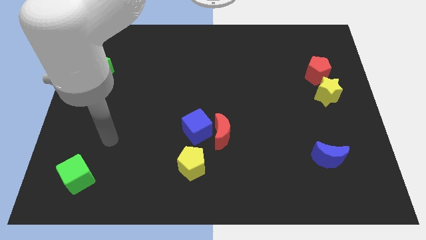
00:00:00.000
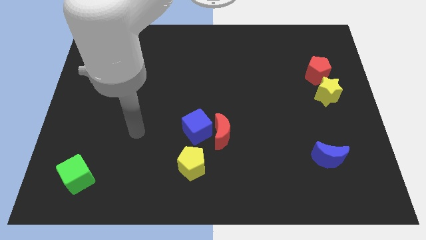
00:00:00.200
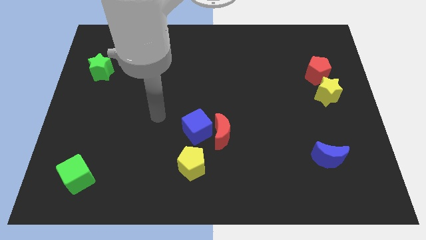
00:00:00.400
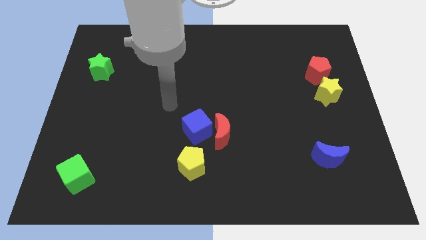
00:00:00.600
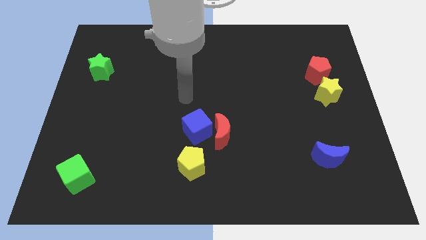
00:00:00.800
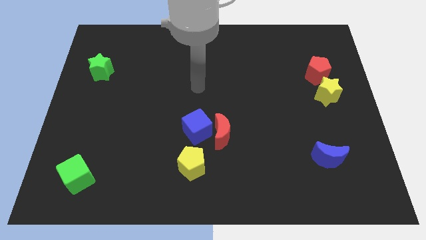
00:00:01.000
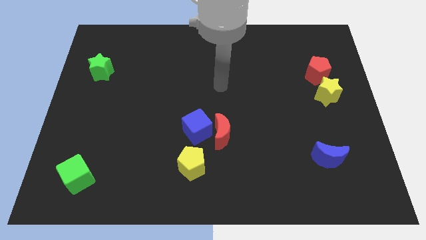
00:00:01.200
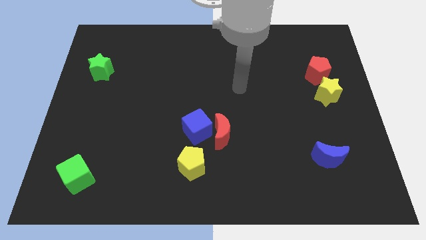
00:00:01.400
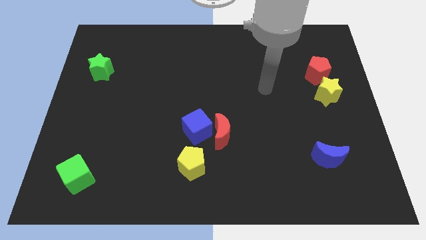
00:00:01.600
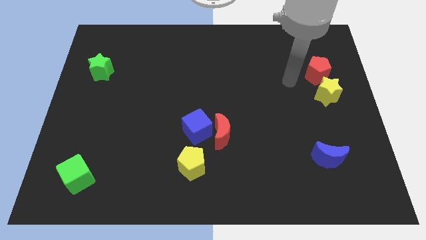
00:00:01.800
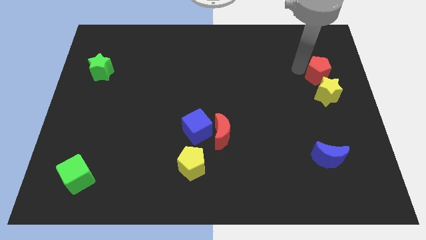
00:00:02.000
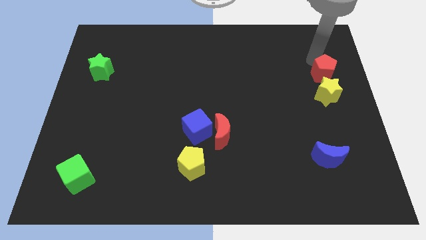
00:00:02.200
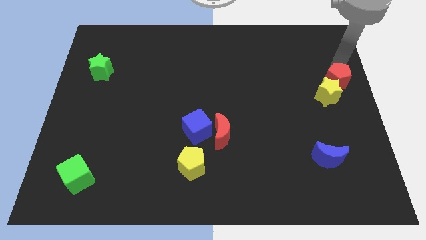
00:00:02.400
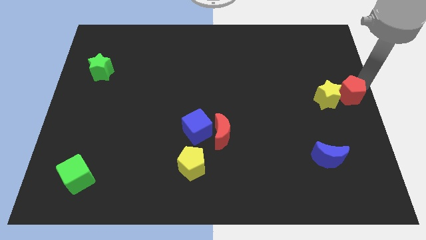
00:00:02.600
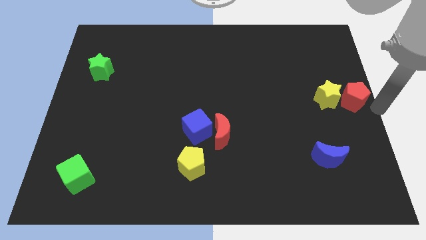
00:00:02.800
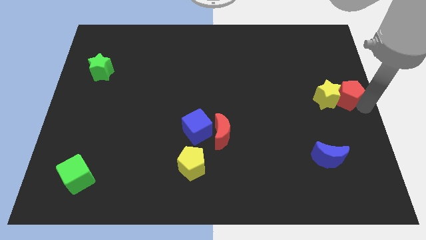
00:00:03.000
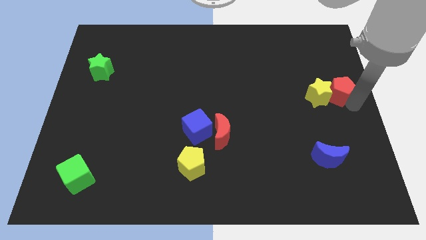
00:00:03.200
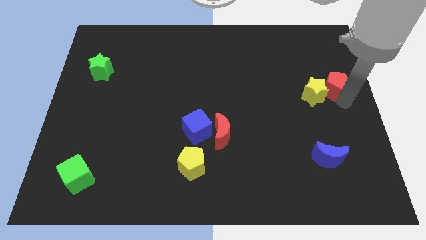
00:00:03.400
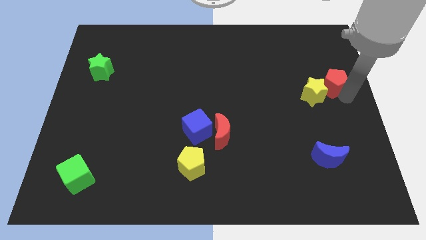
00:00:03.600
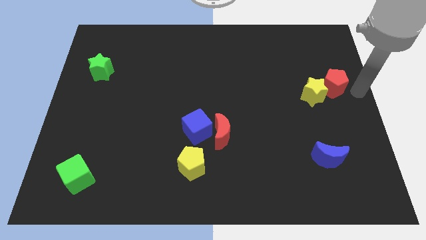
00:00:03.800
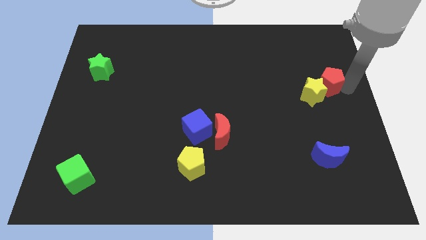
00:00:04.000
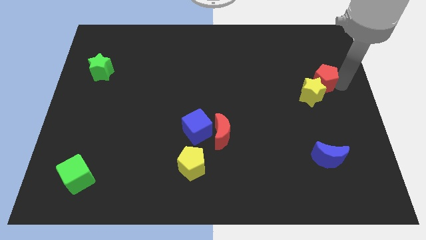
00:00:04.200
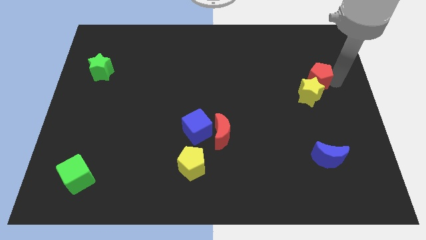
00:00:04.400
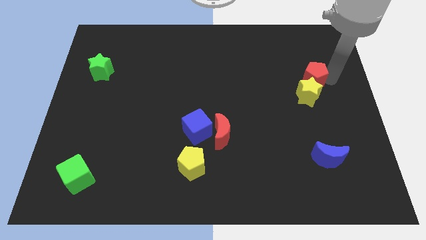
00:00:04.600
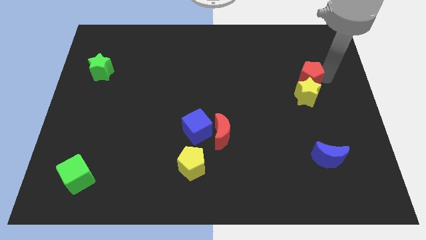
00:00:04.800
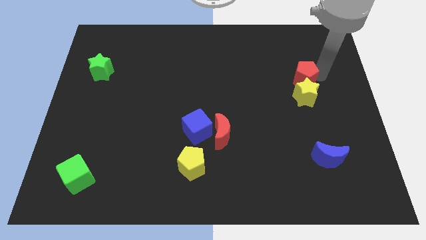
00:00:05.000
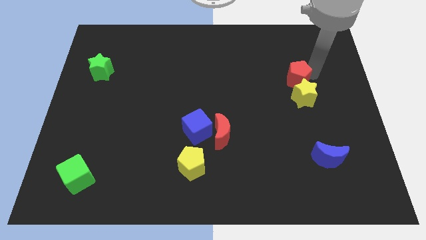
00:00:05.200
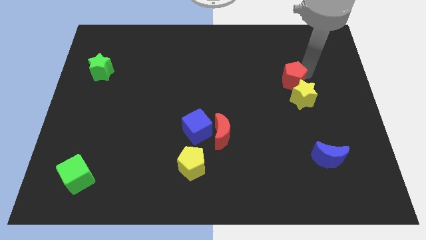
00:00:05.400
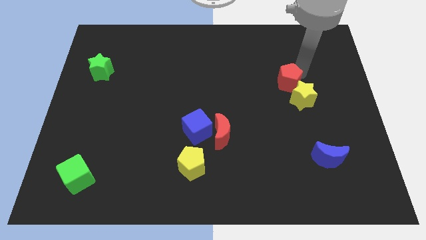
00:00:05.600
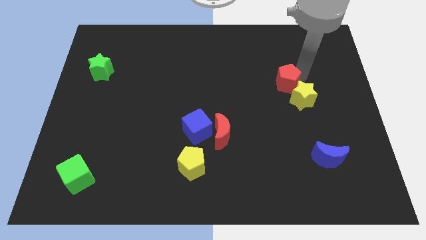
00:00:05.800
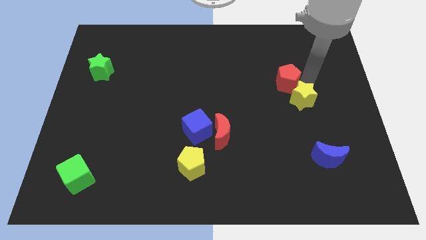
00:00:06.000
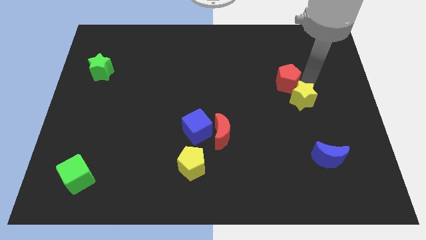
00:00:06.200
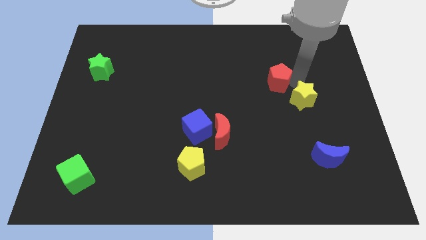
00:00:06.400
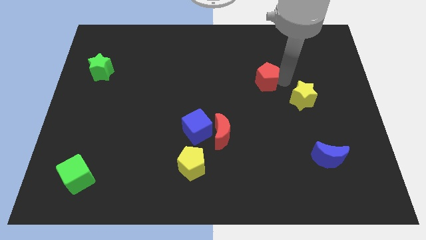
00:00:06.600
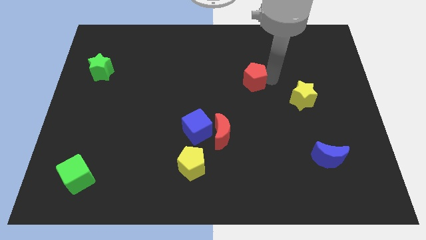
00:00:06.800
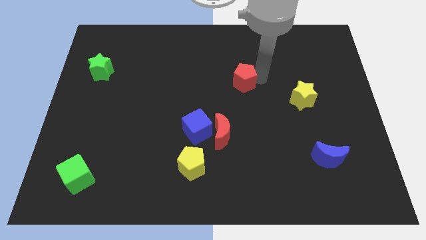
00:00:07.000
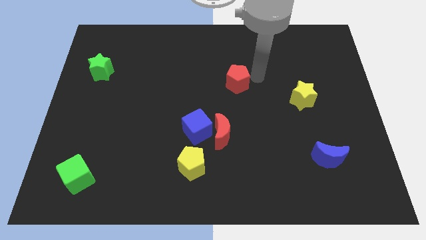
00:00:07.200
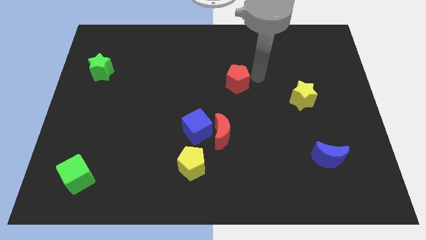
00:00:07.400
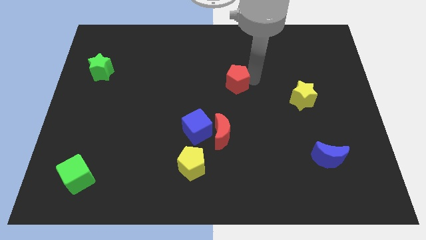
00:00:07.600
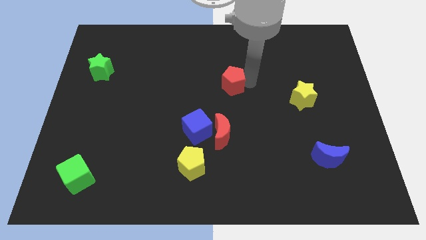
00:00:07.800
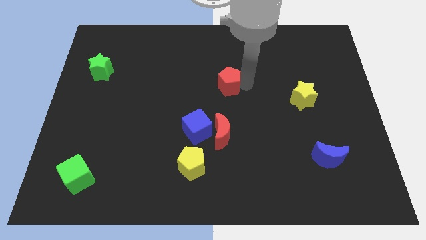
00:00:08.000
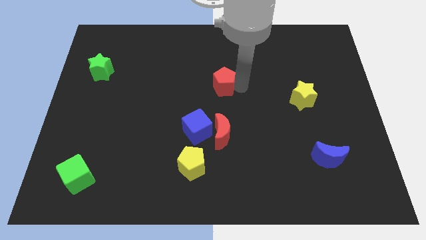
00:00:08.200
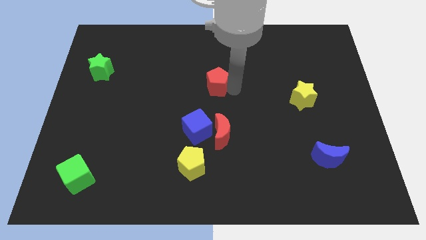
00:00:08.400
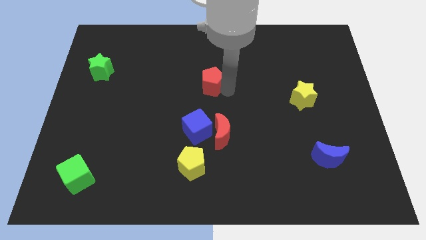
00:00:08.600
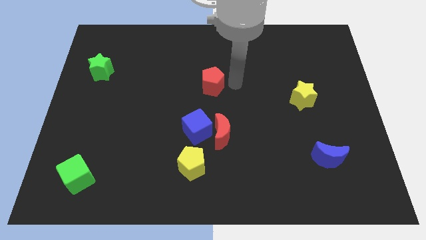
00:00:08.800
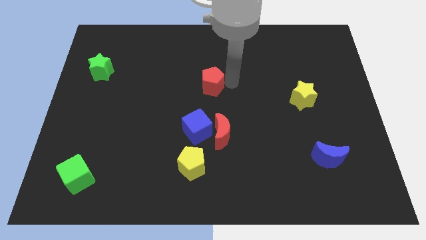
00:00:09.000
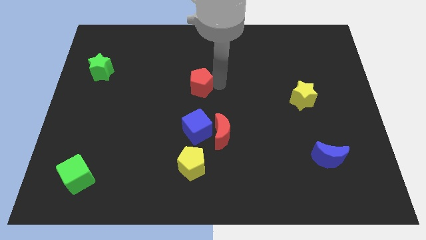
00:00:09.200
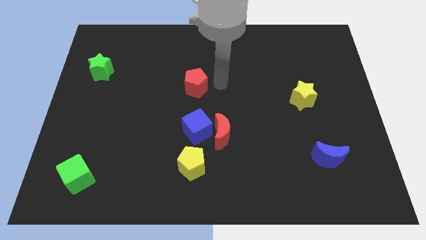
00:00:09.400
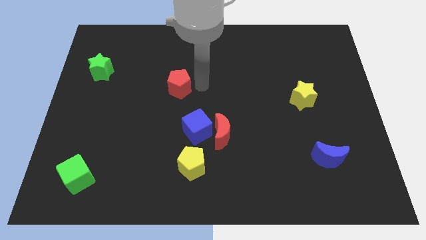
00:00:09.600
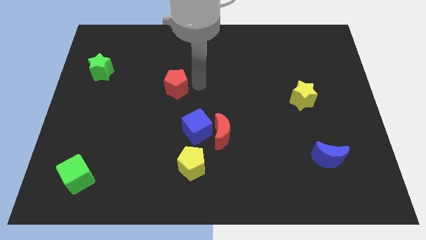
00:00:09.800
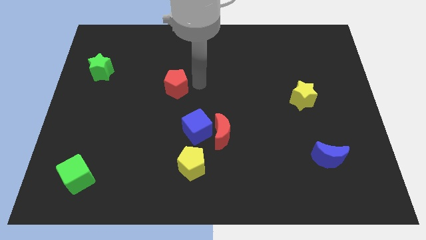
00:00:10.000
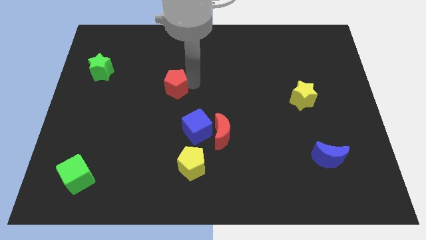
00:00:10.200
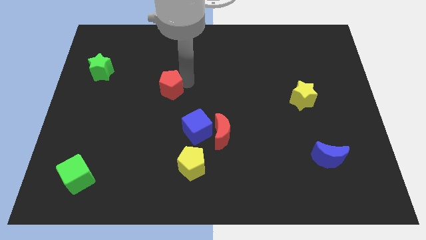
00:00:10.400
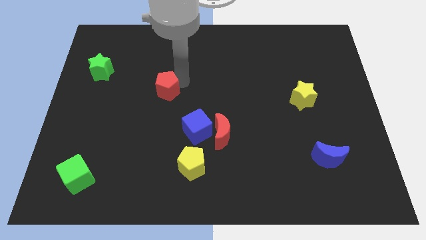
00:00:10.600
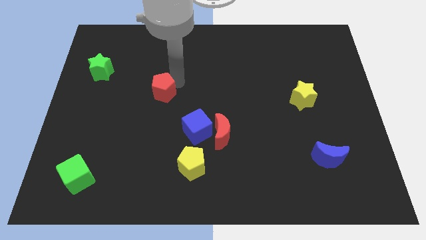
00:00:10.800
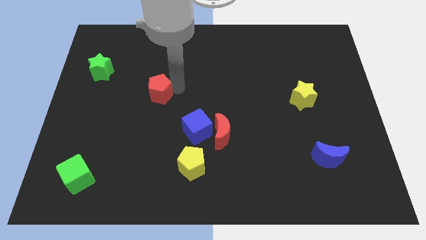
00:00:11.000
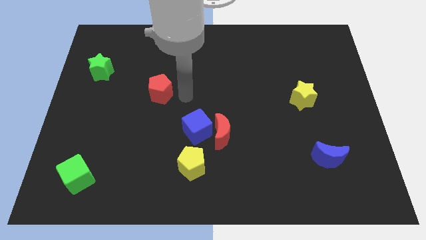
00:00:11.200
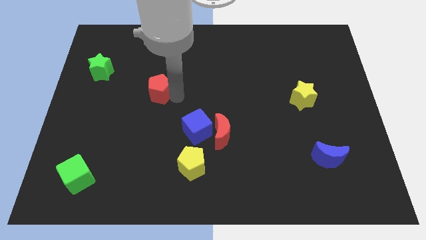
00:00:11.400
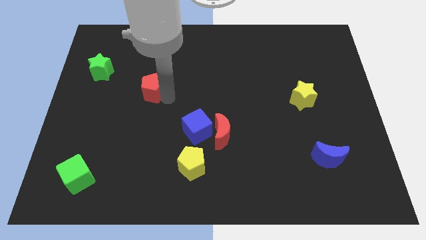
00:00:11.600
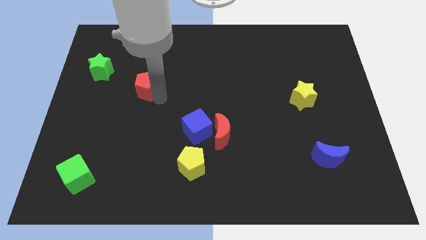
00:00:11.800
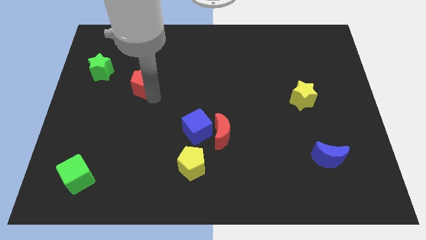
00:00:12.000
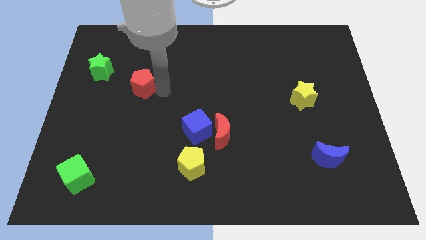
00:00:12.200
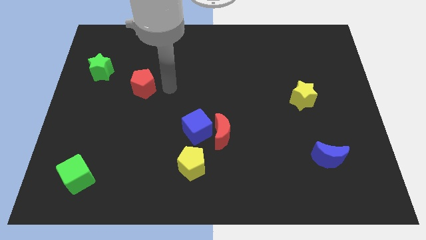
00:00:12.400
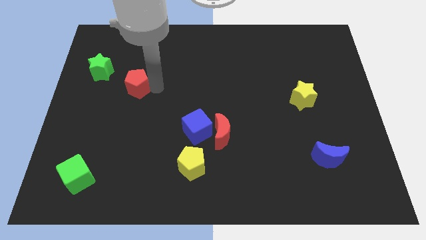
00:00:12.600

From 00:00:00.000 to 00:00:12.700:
push the red pentagon diagonally down and to the right of the green star
